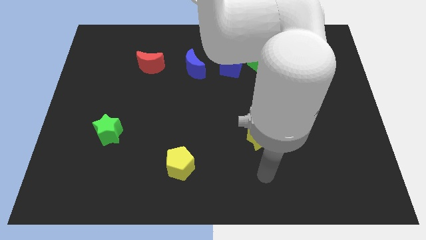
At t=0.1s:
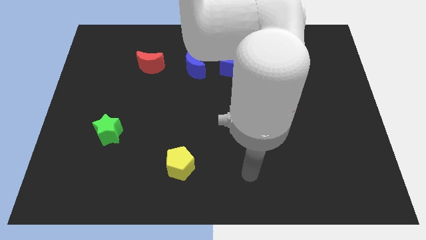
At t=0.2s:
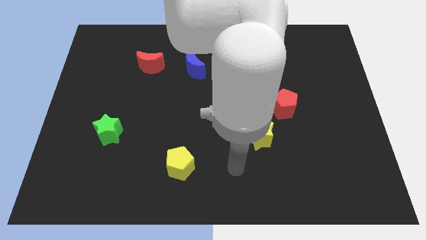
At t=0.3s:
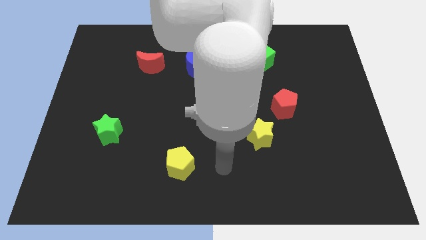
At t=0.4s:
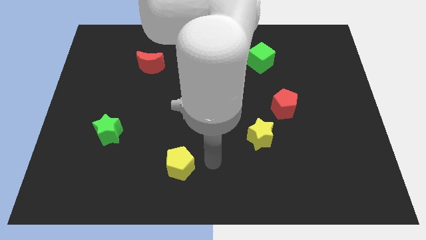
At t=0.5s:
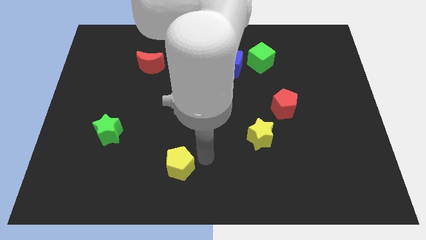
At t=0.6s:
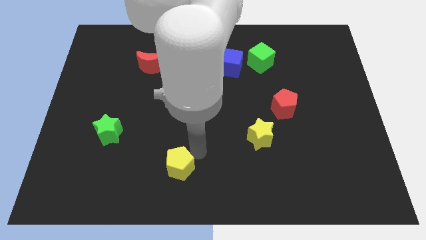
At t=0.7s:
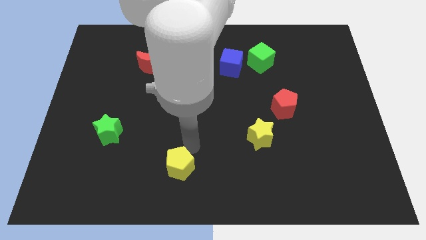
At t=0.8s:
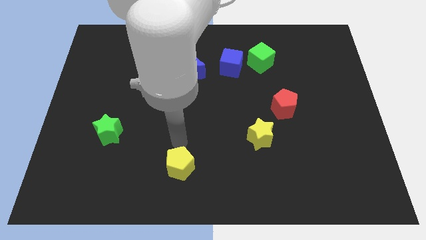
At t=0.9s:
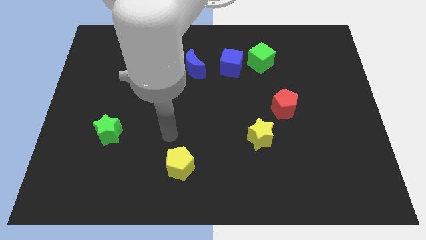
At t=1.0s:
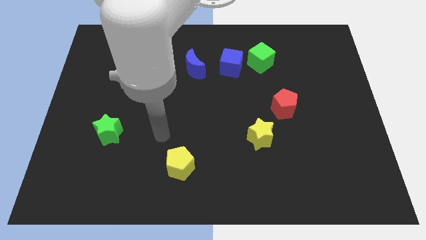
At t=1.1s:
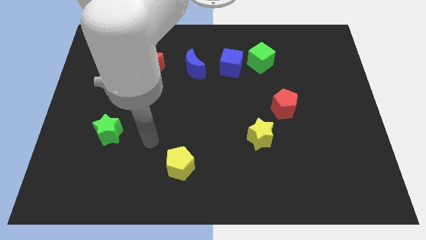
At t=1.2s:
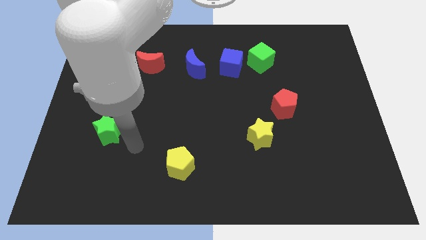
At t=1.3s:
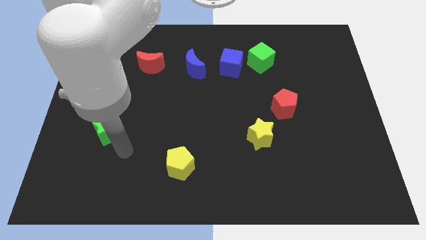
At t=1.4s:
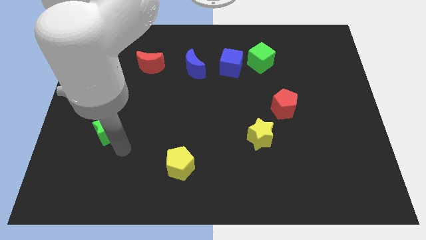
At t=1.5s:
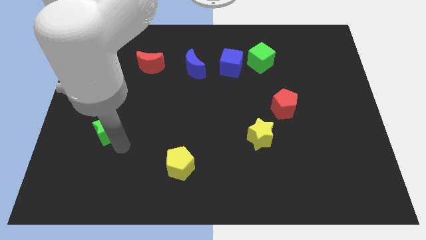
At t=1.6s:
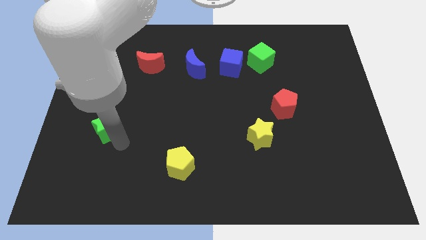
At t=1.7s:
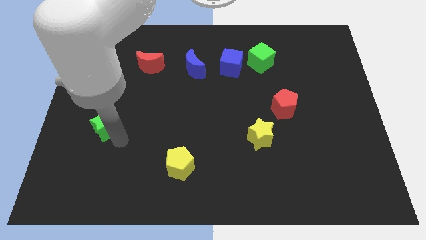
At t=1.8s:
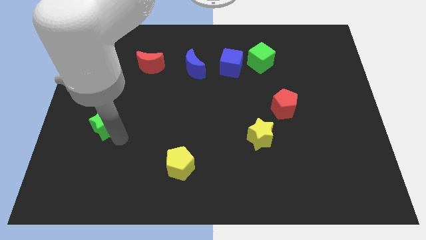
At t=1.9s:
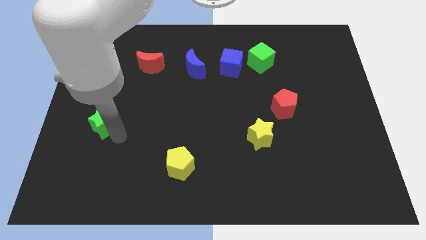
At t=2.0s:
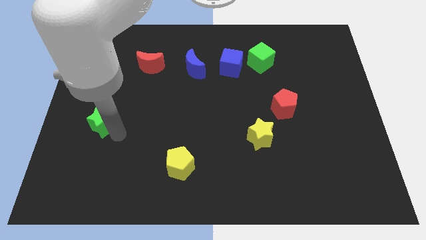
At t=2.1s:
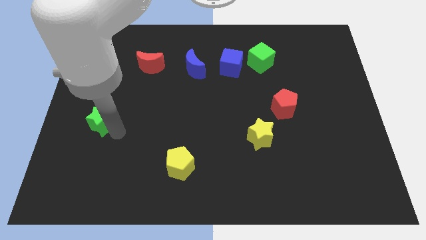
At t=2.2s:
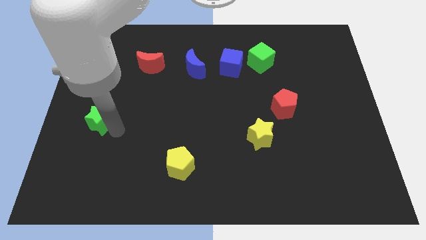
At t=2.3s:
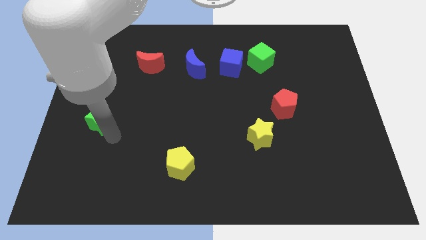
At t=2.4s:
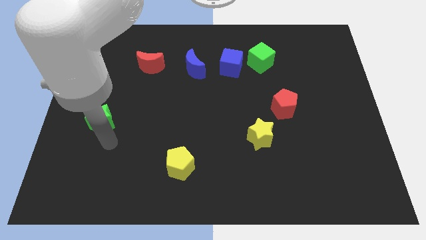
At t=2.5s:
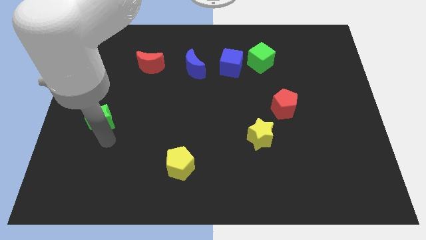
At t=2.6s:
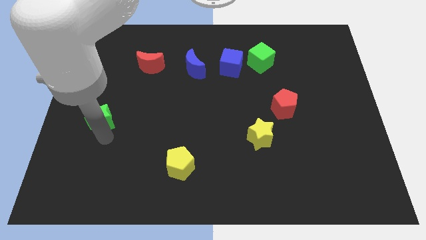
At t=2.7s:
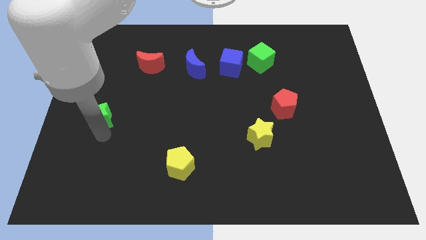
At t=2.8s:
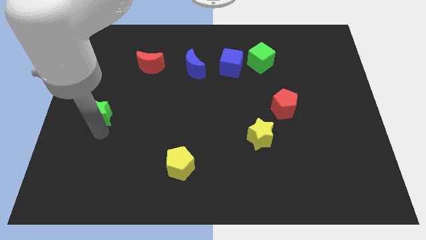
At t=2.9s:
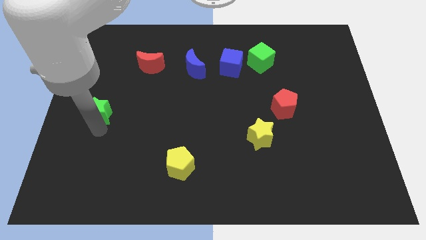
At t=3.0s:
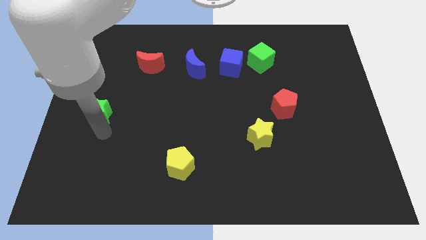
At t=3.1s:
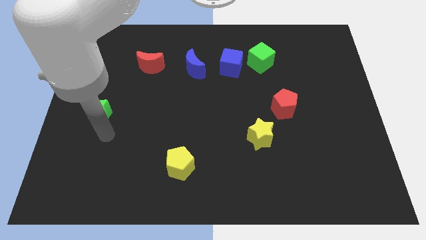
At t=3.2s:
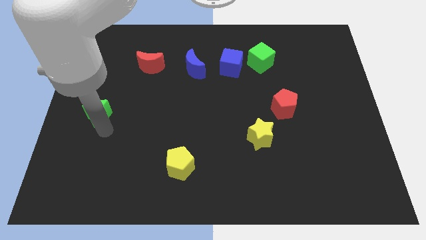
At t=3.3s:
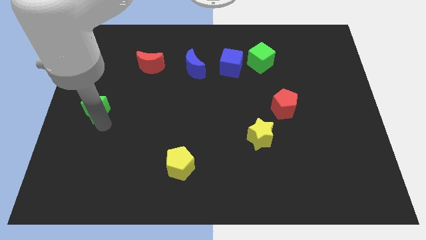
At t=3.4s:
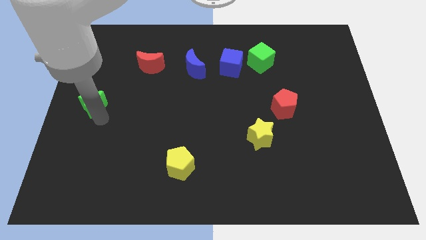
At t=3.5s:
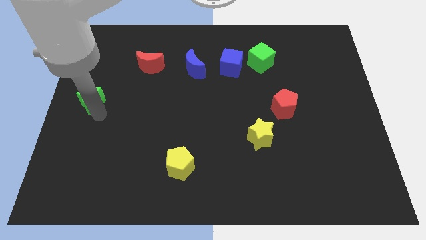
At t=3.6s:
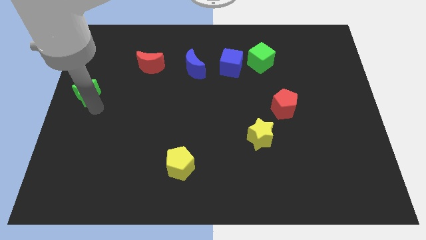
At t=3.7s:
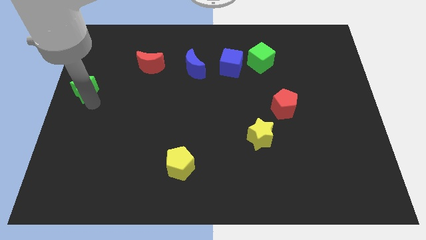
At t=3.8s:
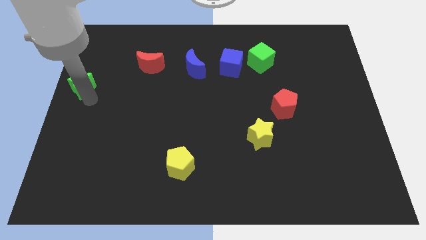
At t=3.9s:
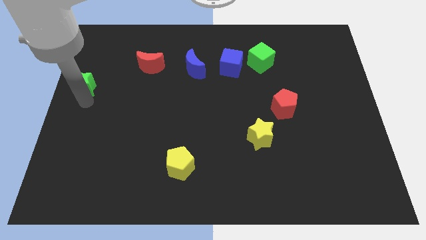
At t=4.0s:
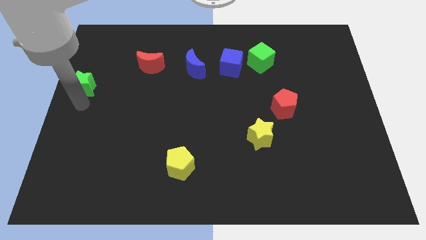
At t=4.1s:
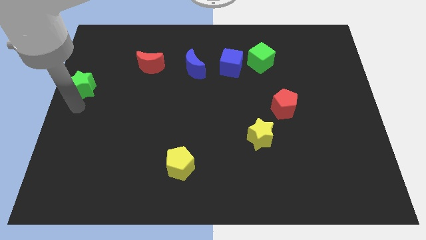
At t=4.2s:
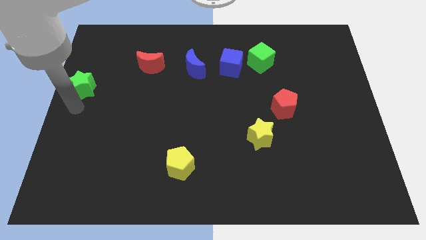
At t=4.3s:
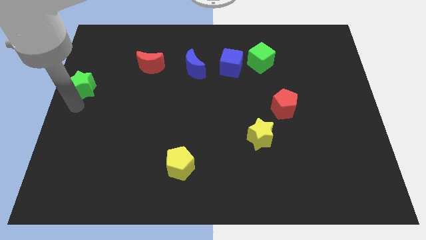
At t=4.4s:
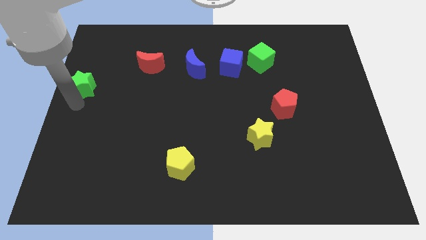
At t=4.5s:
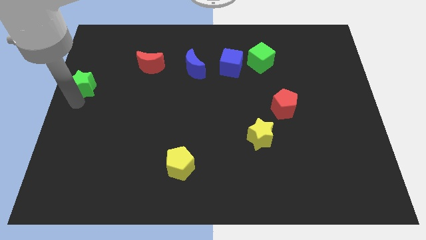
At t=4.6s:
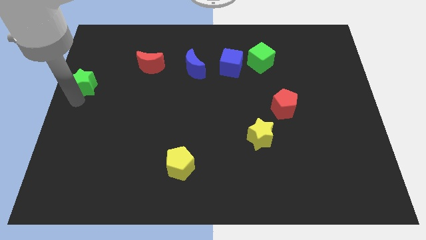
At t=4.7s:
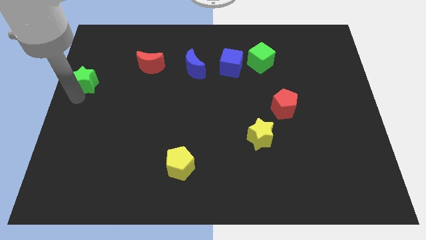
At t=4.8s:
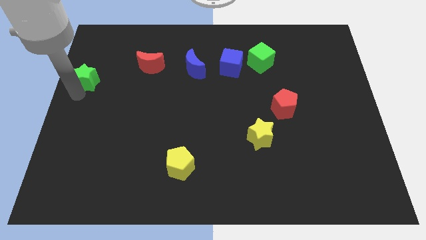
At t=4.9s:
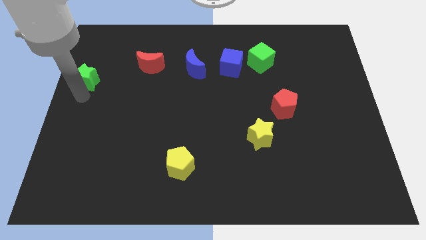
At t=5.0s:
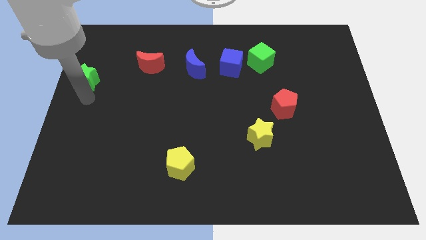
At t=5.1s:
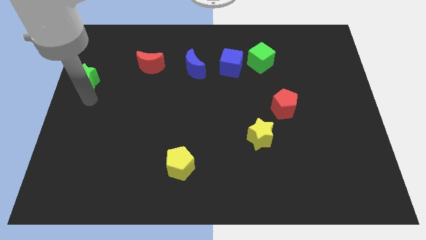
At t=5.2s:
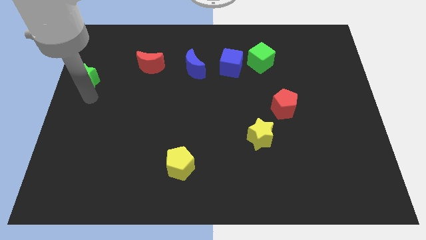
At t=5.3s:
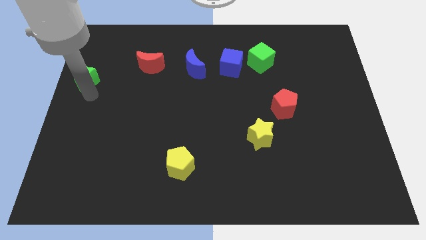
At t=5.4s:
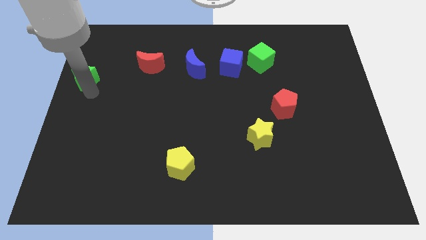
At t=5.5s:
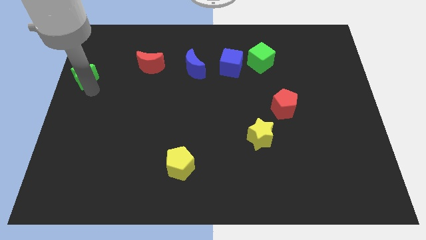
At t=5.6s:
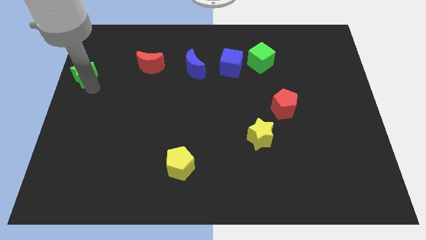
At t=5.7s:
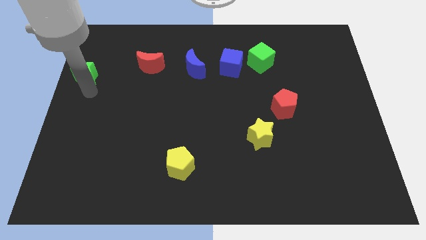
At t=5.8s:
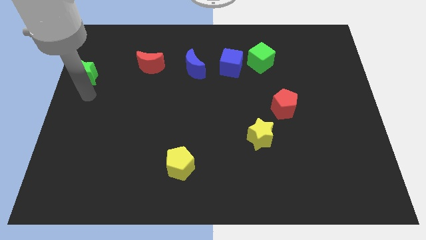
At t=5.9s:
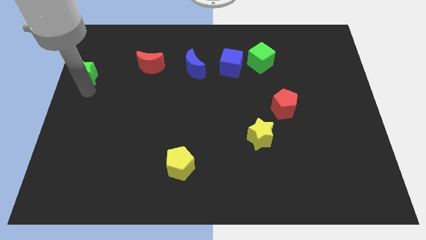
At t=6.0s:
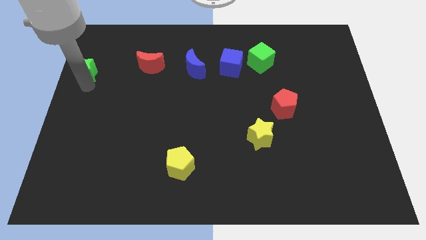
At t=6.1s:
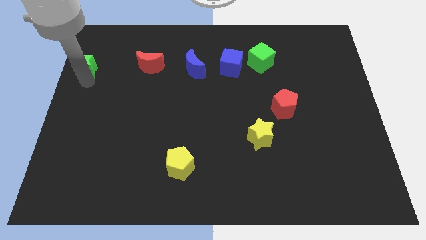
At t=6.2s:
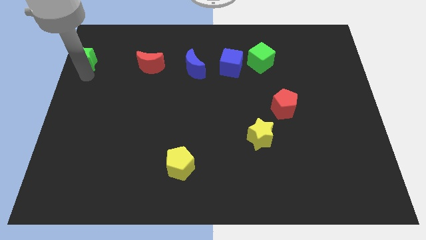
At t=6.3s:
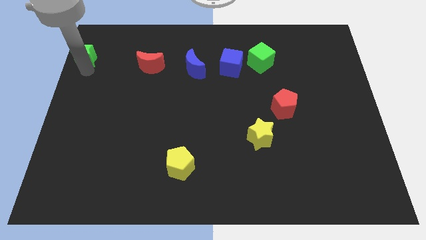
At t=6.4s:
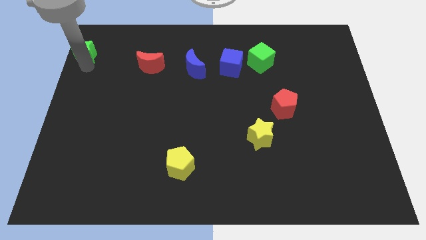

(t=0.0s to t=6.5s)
move the green star to the upper left corner

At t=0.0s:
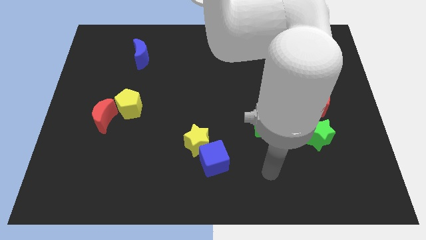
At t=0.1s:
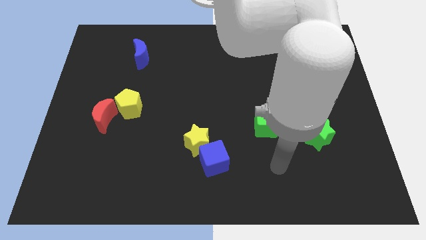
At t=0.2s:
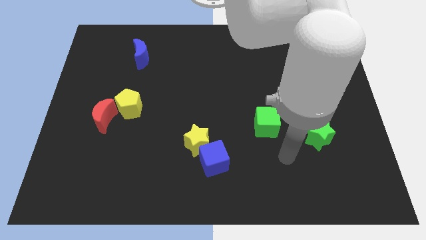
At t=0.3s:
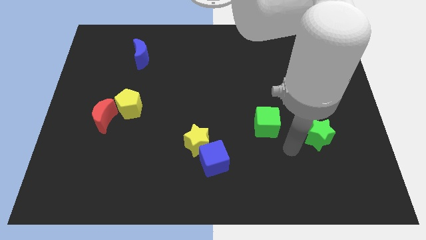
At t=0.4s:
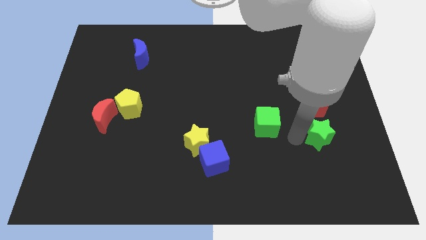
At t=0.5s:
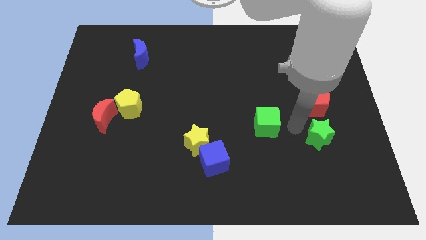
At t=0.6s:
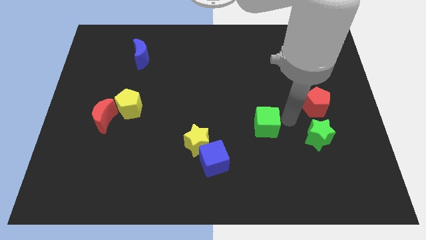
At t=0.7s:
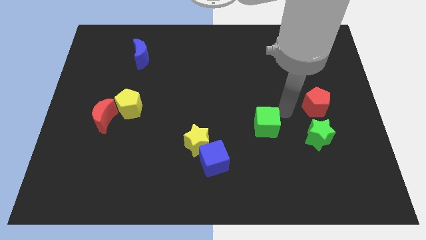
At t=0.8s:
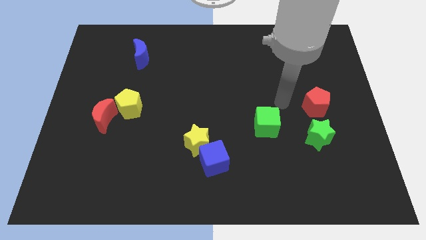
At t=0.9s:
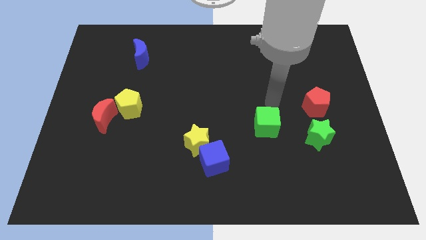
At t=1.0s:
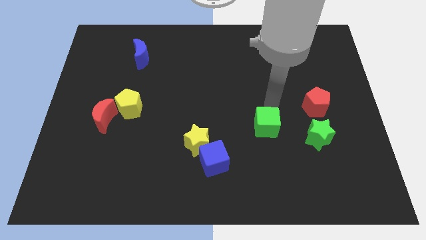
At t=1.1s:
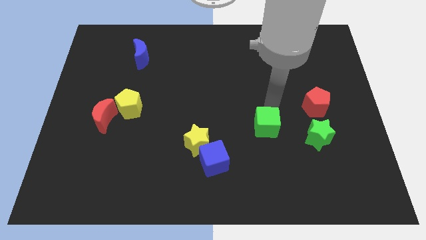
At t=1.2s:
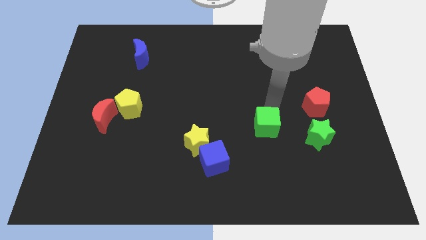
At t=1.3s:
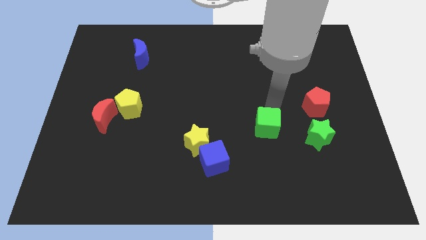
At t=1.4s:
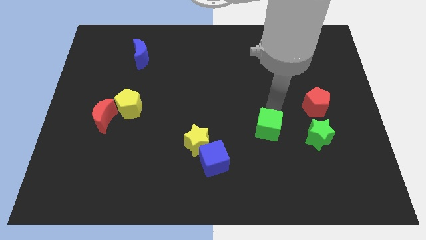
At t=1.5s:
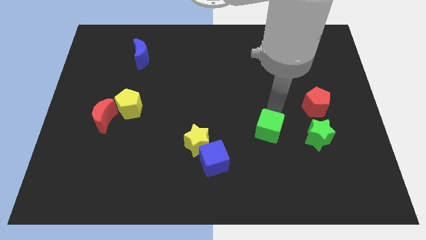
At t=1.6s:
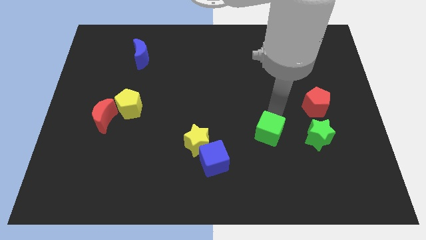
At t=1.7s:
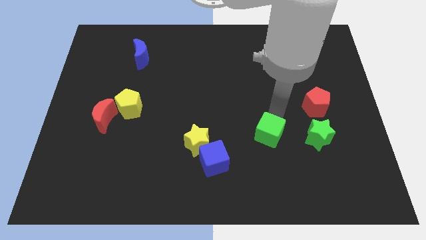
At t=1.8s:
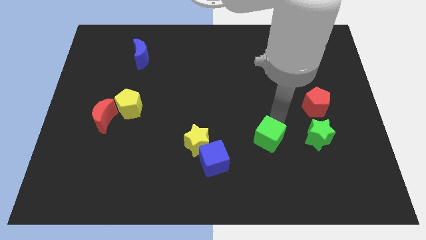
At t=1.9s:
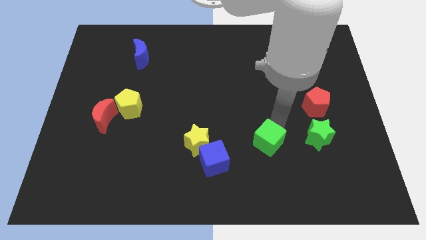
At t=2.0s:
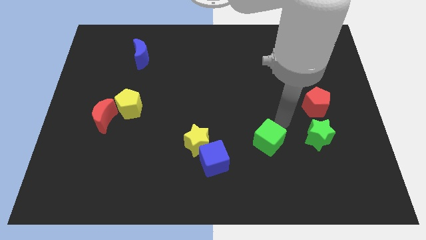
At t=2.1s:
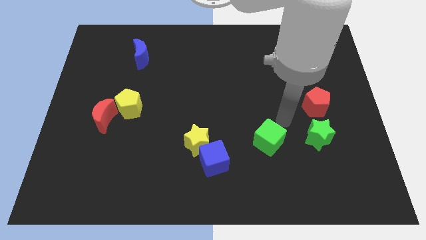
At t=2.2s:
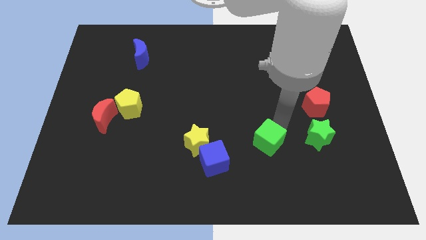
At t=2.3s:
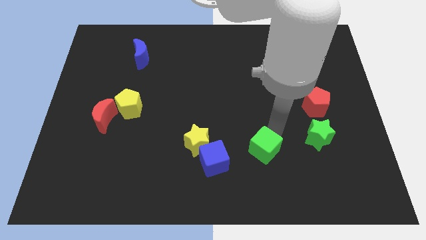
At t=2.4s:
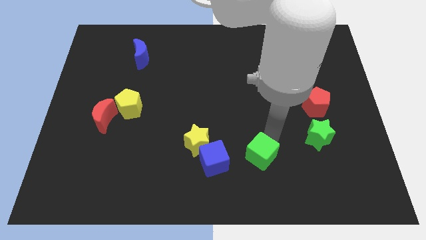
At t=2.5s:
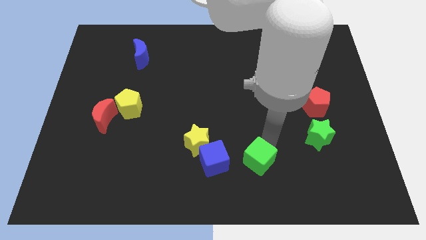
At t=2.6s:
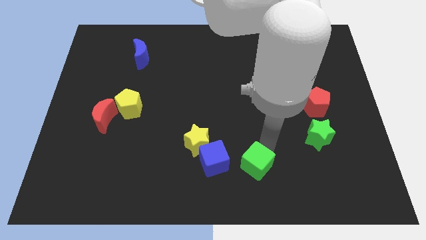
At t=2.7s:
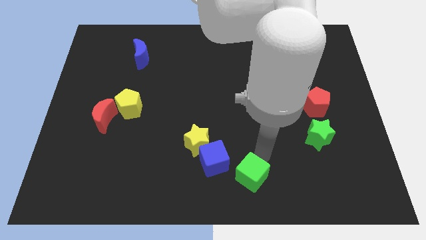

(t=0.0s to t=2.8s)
push the green cube to the bottom side
